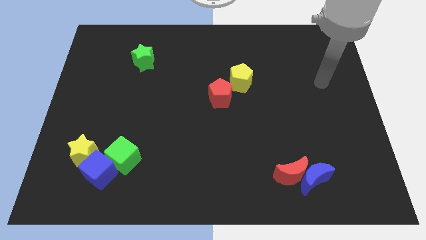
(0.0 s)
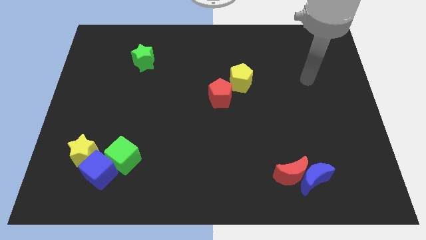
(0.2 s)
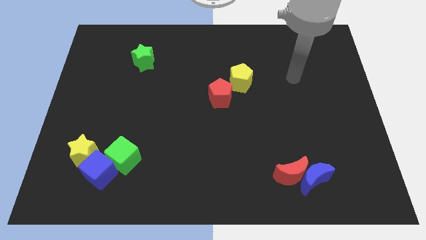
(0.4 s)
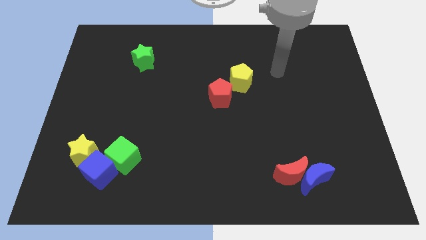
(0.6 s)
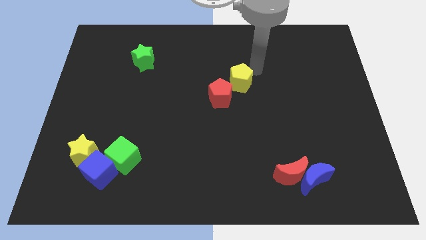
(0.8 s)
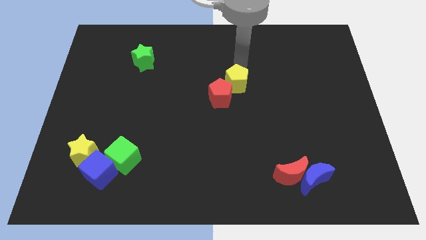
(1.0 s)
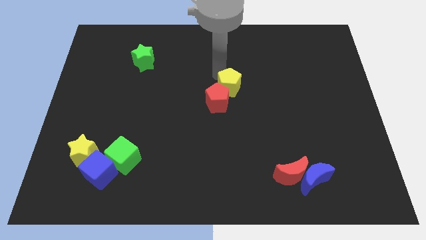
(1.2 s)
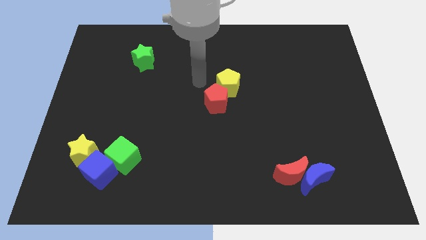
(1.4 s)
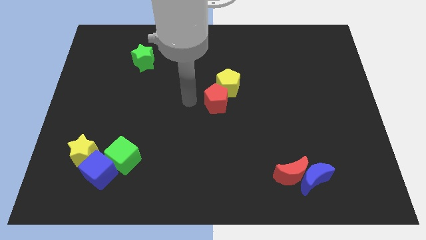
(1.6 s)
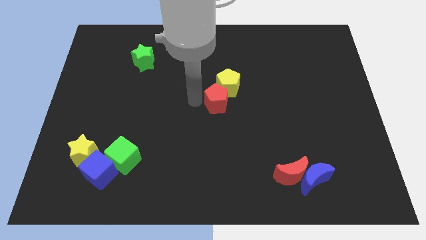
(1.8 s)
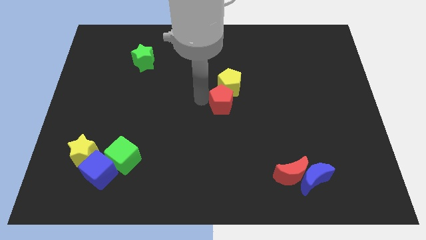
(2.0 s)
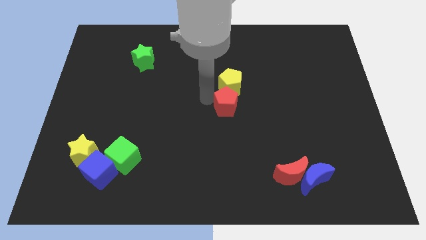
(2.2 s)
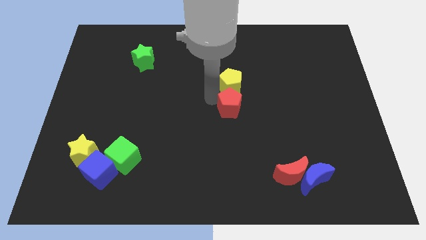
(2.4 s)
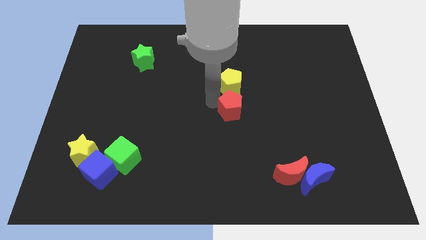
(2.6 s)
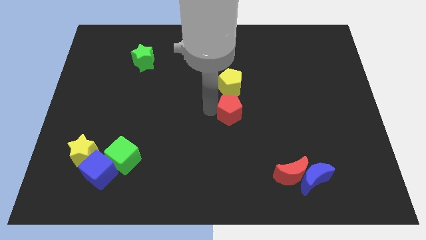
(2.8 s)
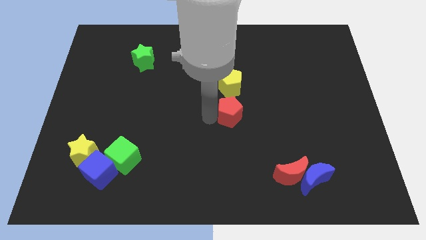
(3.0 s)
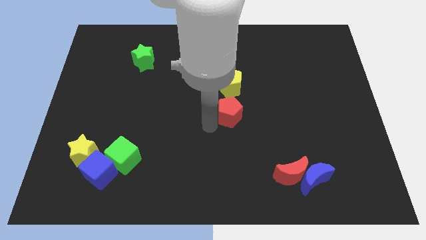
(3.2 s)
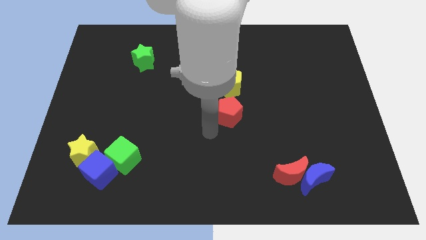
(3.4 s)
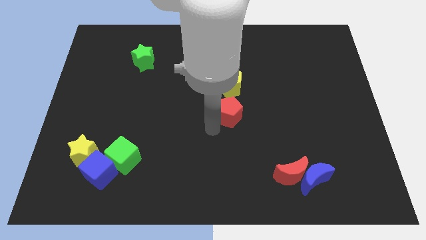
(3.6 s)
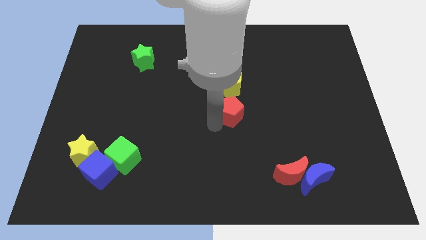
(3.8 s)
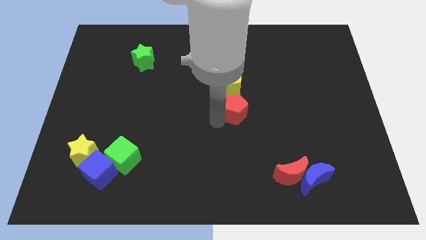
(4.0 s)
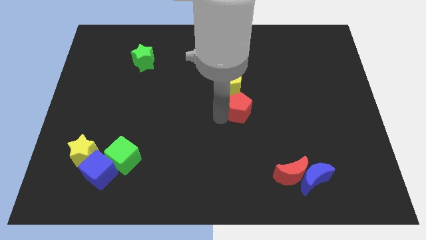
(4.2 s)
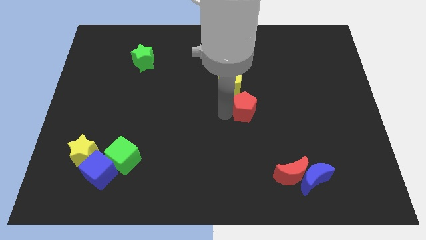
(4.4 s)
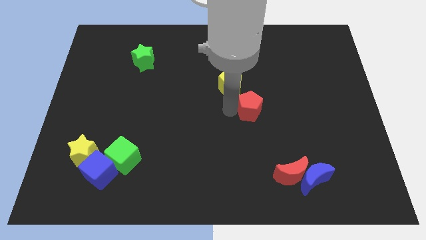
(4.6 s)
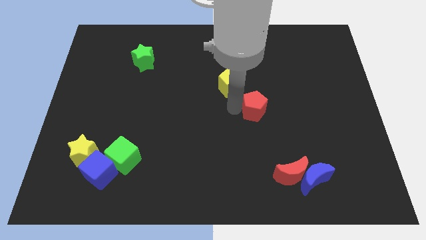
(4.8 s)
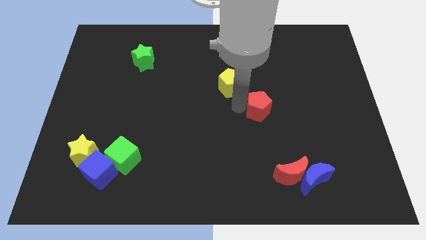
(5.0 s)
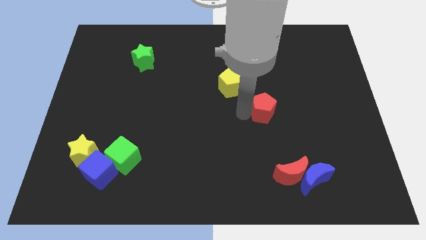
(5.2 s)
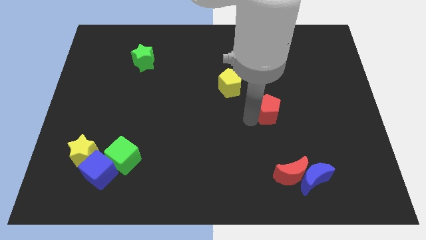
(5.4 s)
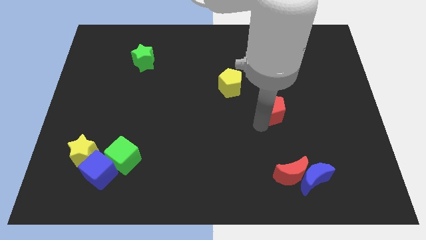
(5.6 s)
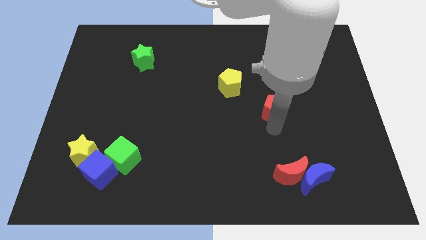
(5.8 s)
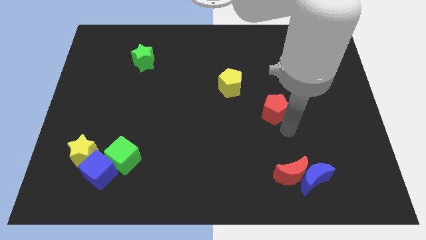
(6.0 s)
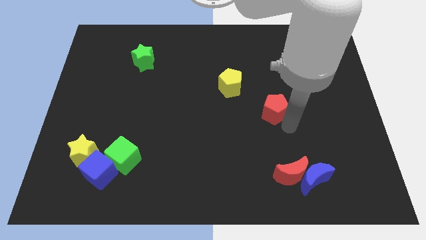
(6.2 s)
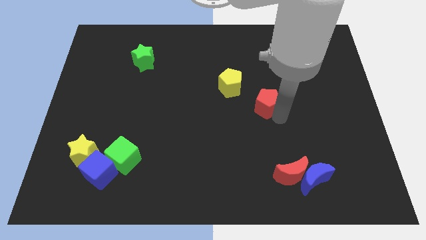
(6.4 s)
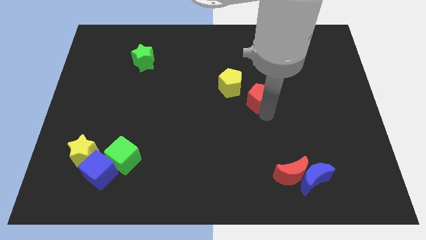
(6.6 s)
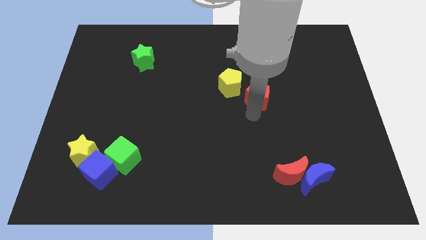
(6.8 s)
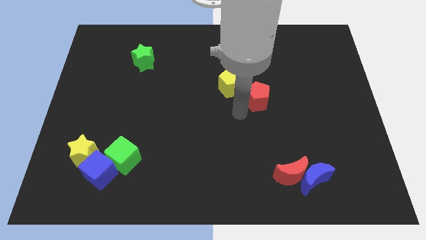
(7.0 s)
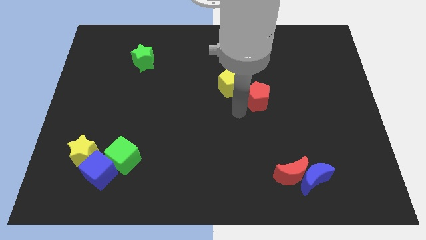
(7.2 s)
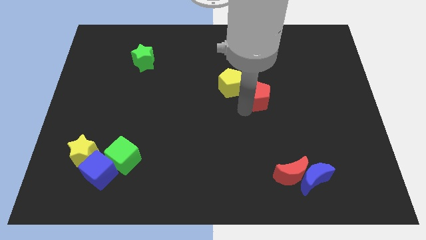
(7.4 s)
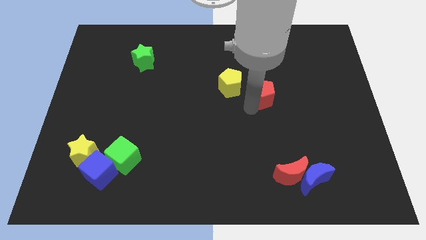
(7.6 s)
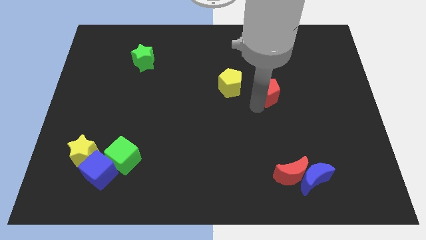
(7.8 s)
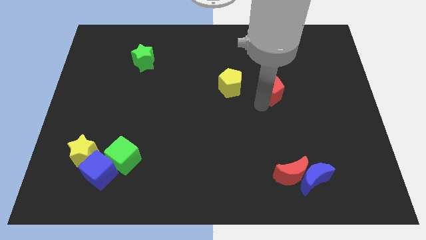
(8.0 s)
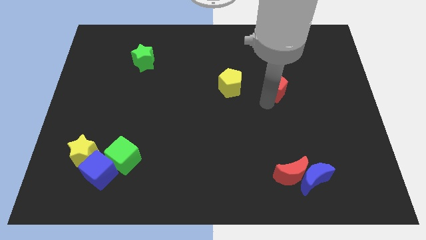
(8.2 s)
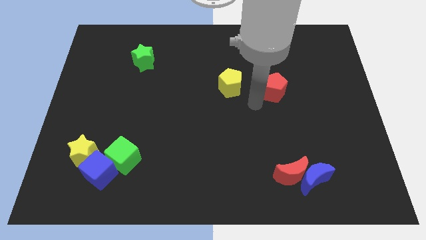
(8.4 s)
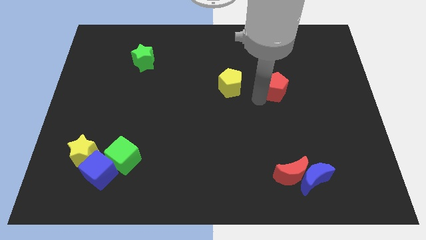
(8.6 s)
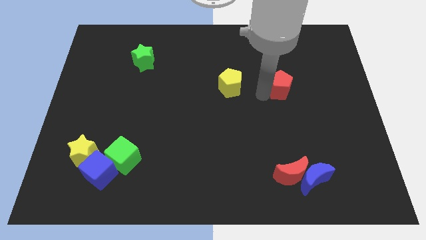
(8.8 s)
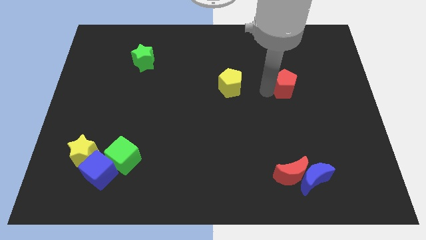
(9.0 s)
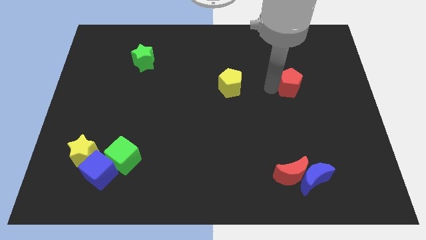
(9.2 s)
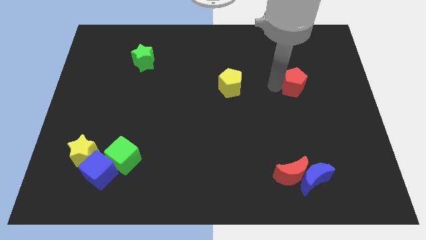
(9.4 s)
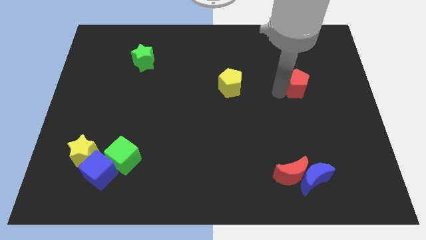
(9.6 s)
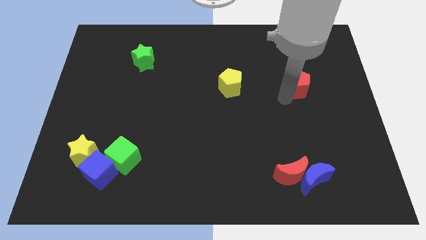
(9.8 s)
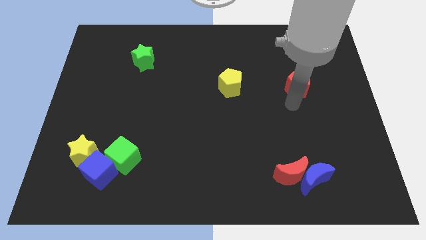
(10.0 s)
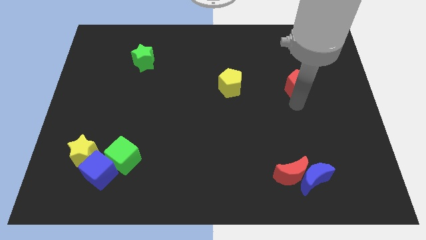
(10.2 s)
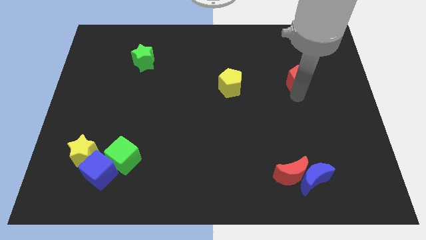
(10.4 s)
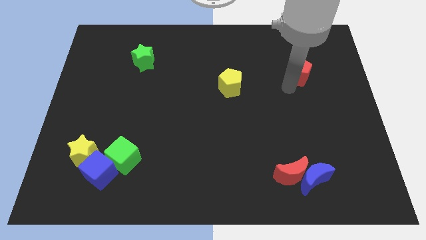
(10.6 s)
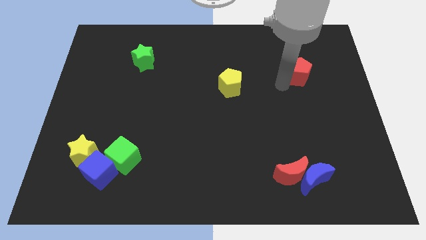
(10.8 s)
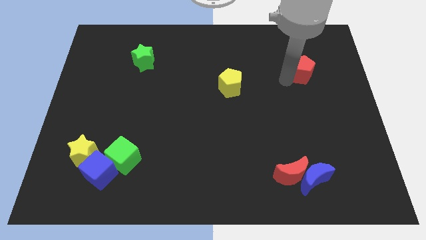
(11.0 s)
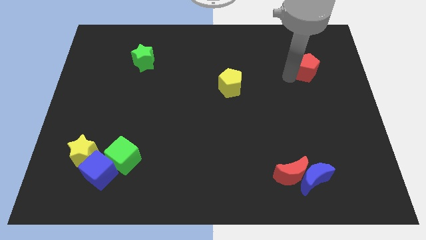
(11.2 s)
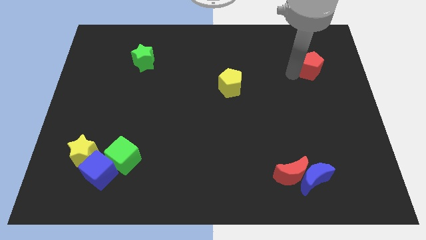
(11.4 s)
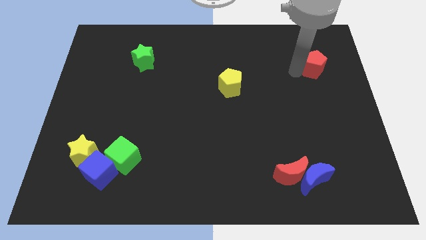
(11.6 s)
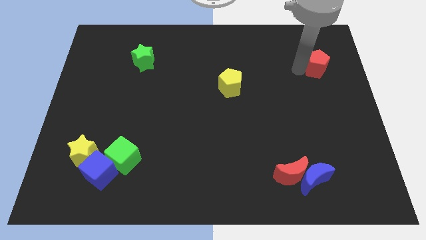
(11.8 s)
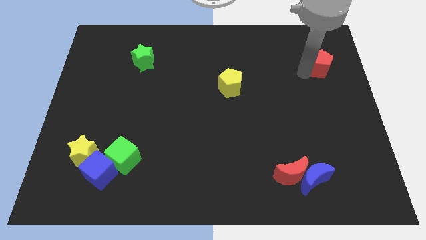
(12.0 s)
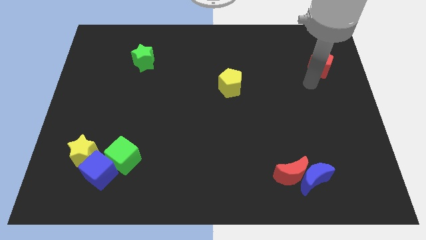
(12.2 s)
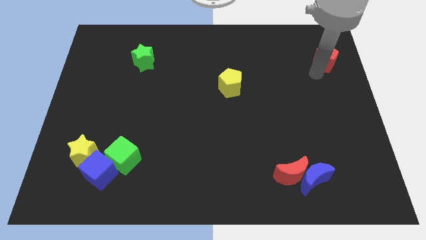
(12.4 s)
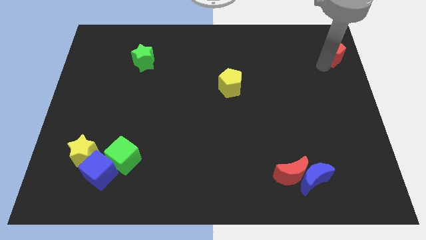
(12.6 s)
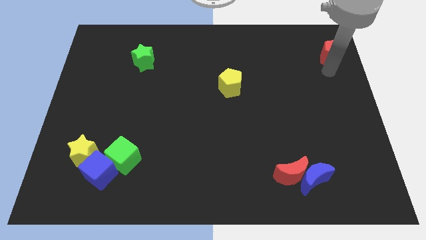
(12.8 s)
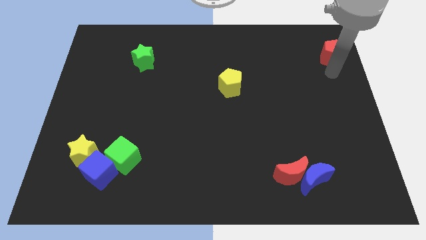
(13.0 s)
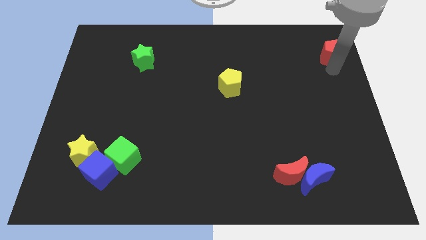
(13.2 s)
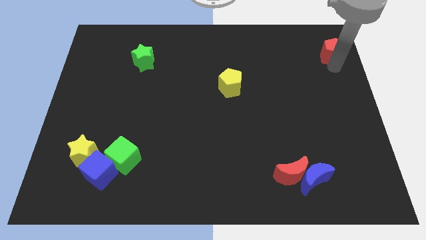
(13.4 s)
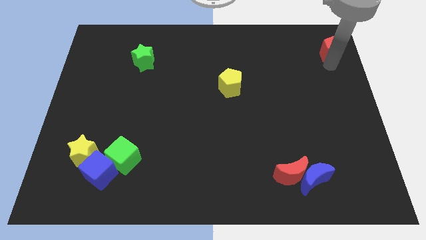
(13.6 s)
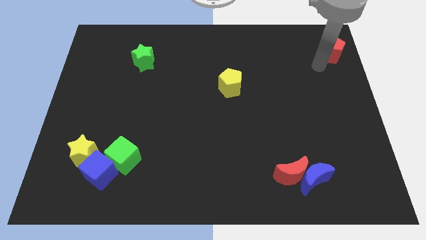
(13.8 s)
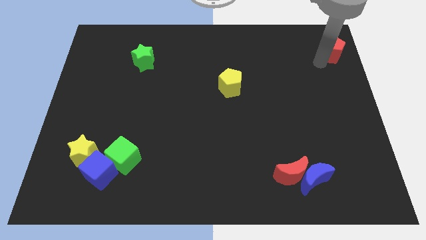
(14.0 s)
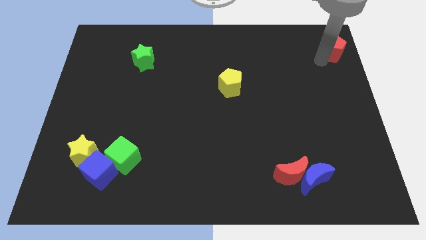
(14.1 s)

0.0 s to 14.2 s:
slide the red pentagon to the upper right corner
